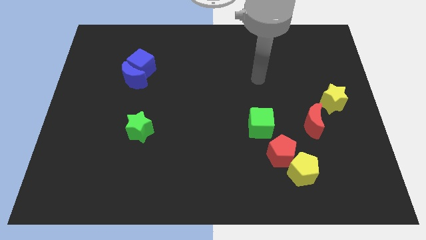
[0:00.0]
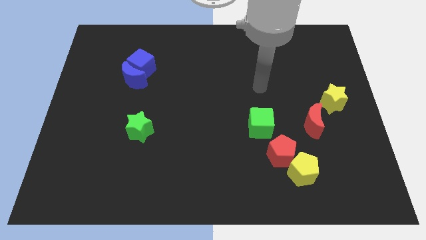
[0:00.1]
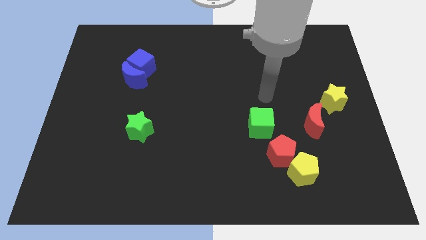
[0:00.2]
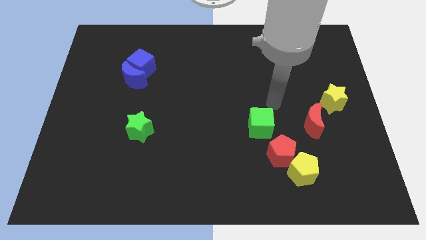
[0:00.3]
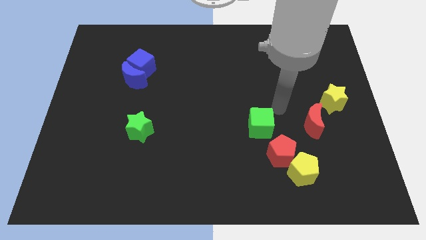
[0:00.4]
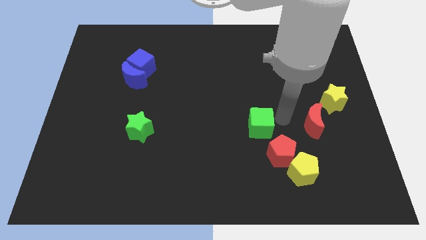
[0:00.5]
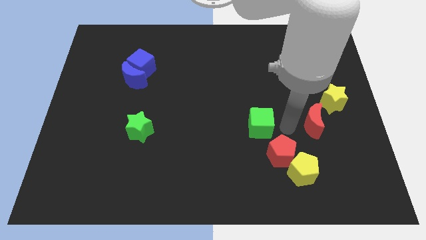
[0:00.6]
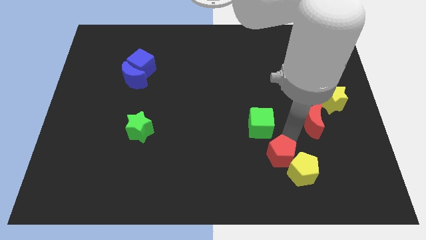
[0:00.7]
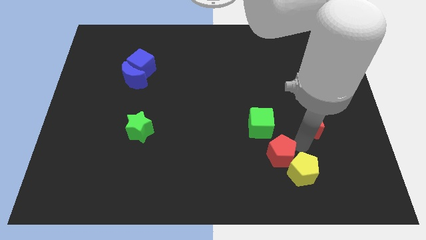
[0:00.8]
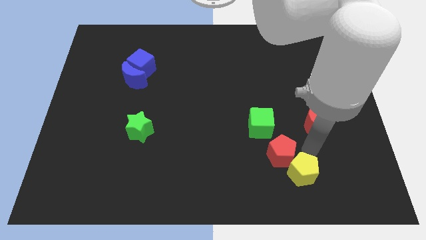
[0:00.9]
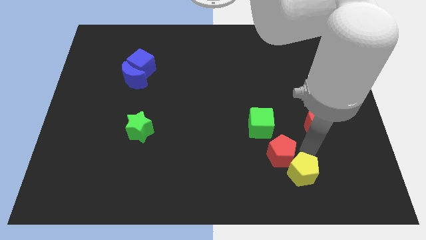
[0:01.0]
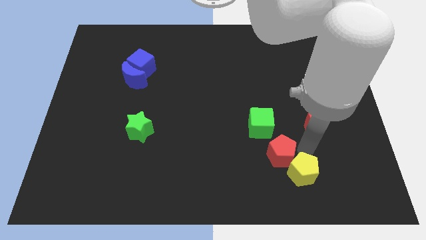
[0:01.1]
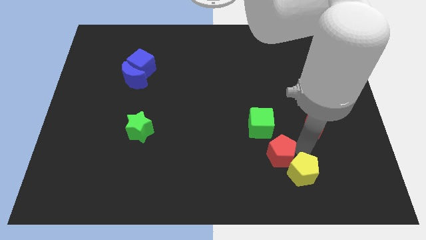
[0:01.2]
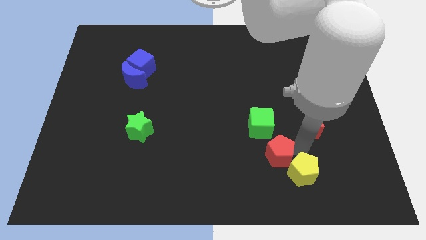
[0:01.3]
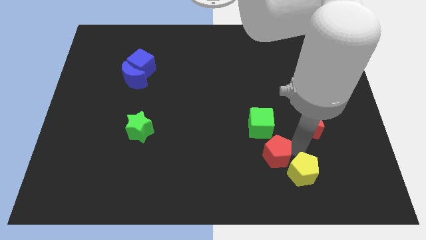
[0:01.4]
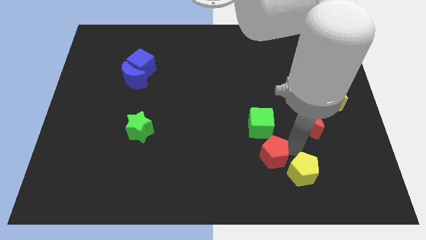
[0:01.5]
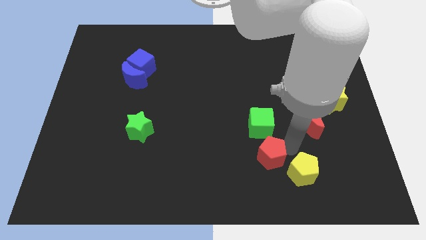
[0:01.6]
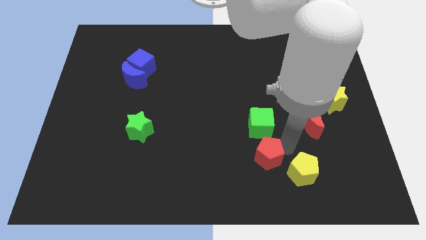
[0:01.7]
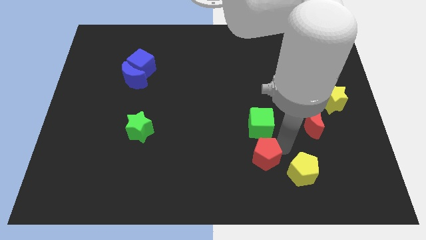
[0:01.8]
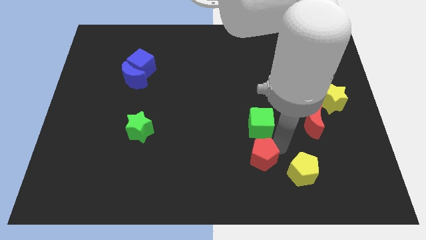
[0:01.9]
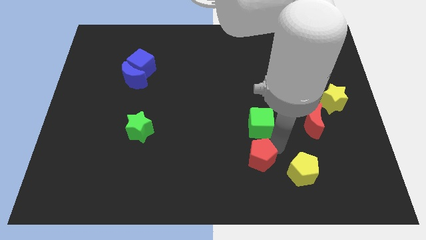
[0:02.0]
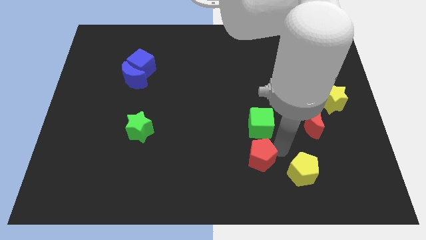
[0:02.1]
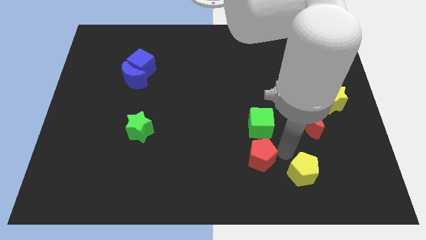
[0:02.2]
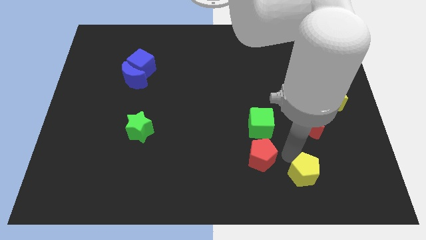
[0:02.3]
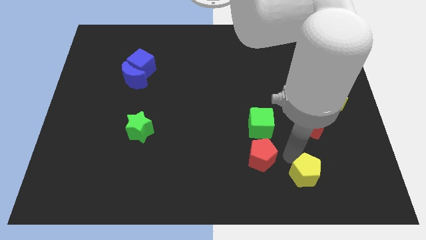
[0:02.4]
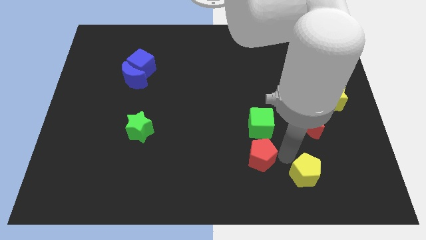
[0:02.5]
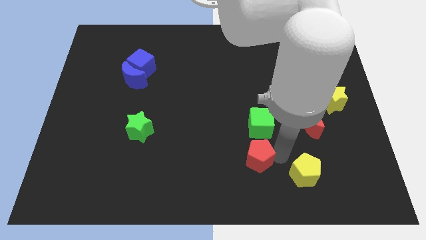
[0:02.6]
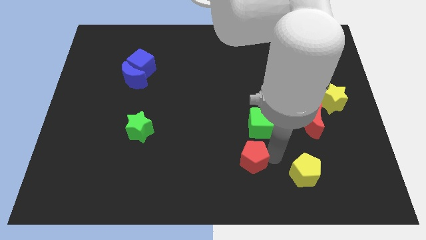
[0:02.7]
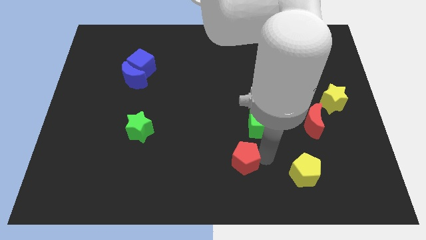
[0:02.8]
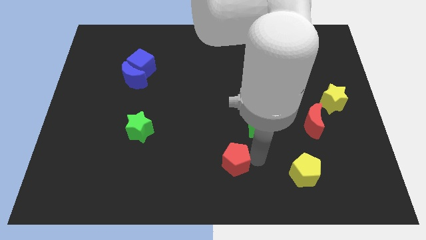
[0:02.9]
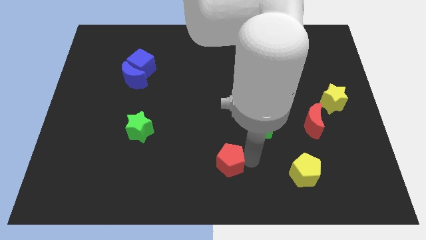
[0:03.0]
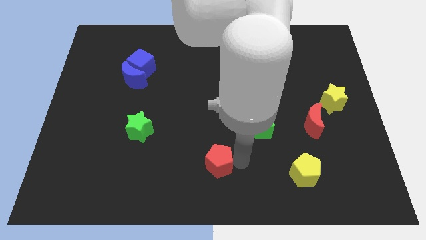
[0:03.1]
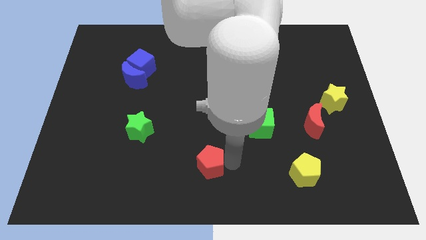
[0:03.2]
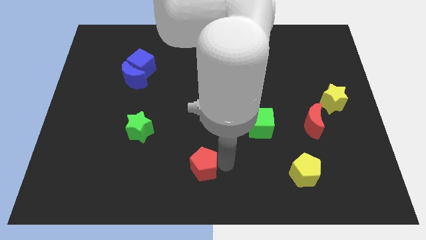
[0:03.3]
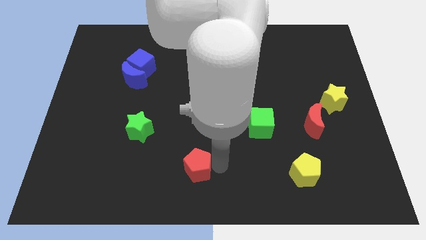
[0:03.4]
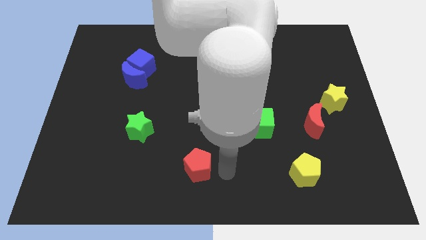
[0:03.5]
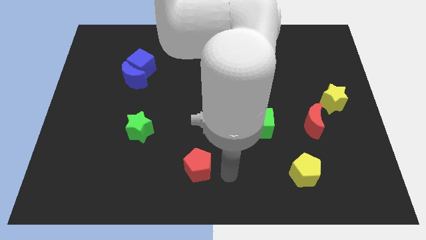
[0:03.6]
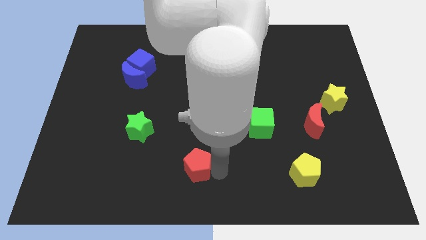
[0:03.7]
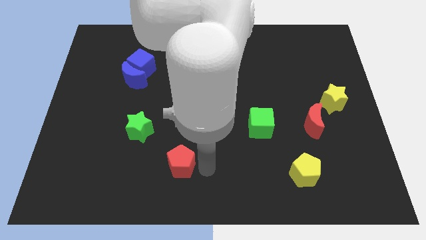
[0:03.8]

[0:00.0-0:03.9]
move the red pentagon left

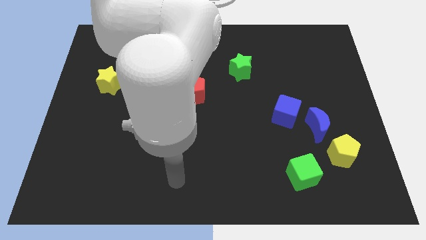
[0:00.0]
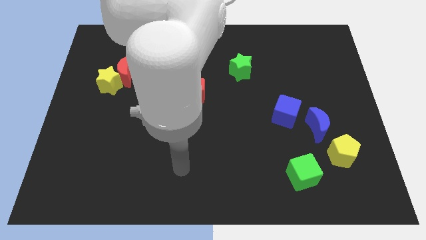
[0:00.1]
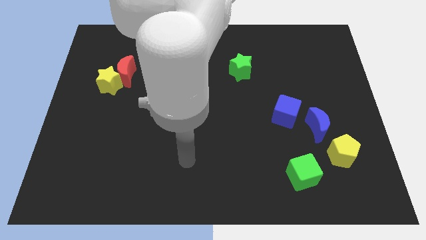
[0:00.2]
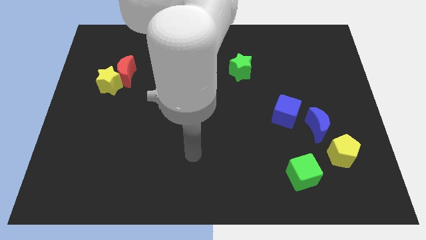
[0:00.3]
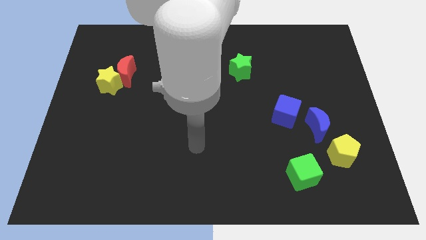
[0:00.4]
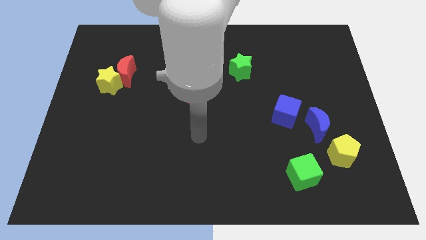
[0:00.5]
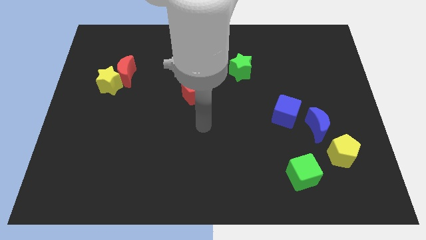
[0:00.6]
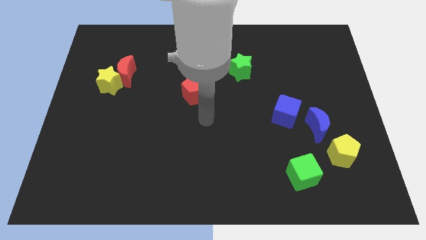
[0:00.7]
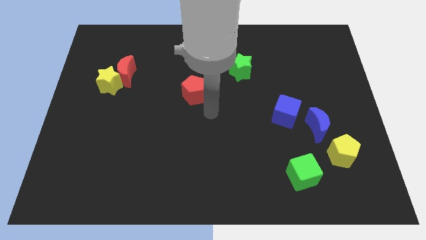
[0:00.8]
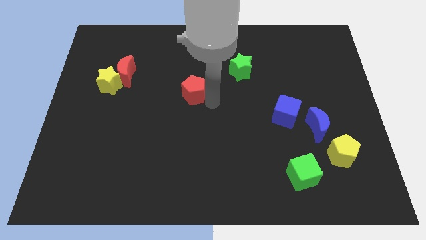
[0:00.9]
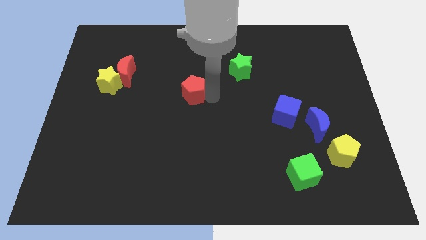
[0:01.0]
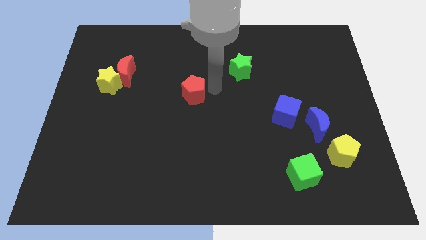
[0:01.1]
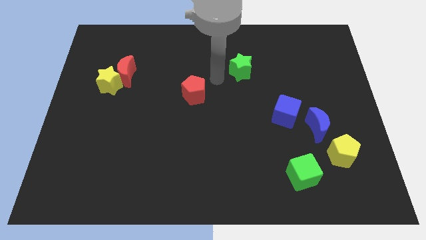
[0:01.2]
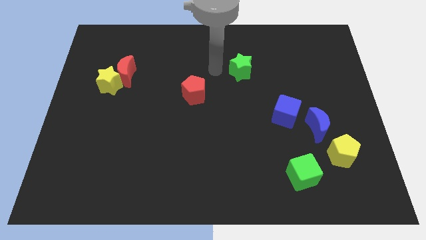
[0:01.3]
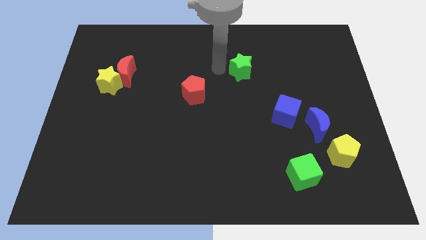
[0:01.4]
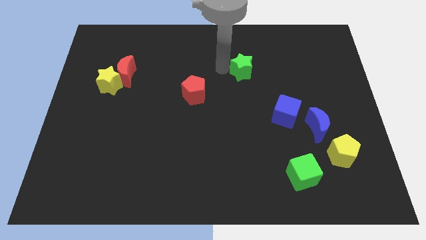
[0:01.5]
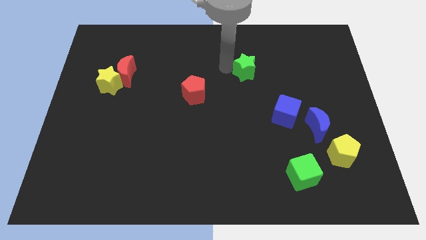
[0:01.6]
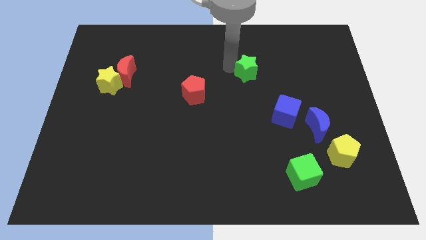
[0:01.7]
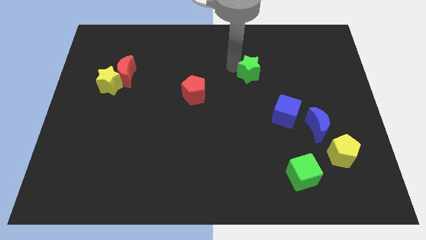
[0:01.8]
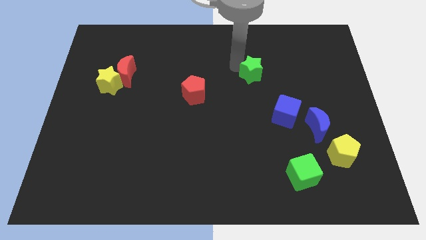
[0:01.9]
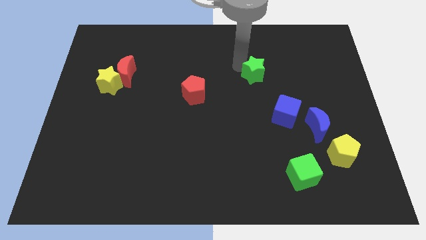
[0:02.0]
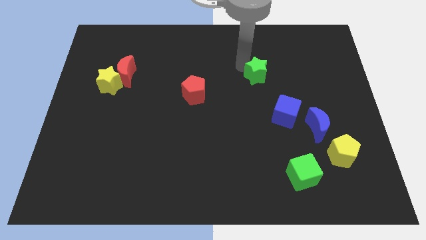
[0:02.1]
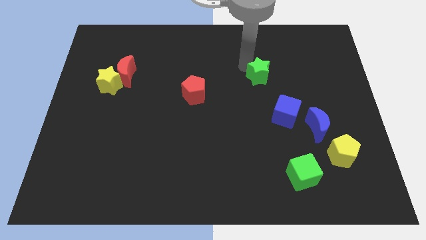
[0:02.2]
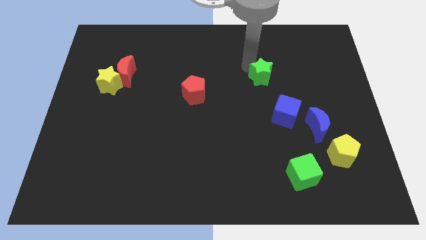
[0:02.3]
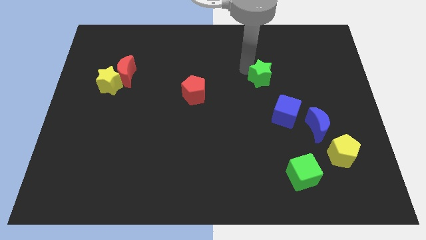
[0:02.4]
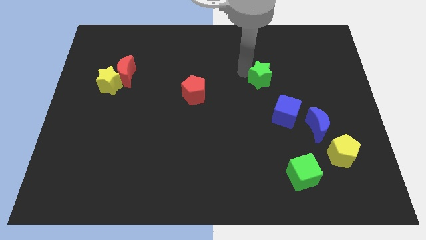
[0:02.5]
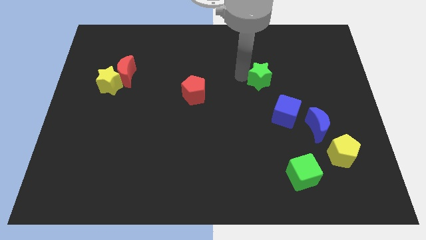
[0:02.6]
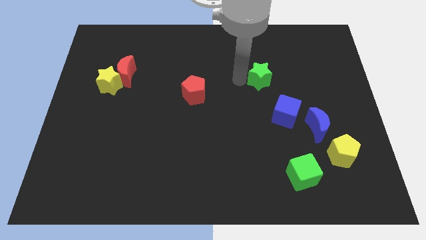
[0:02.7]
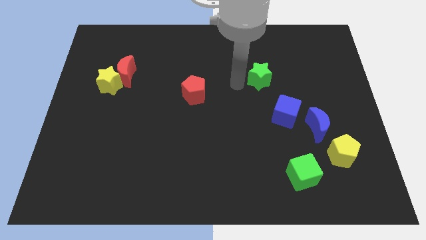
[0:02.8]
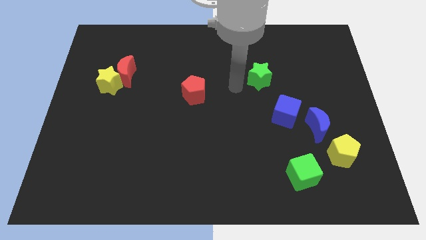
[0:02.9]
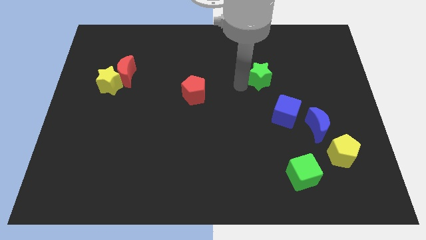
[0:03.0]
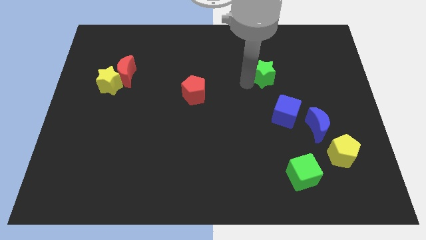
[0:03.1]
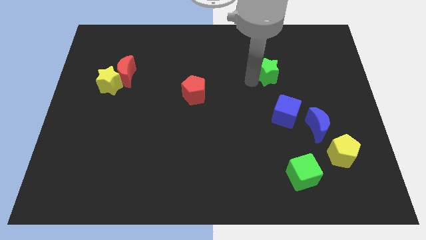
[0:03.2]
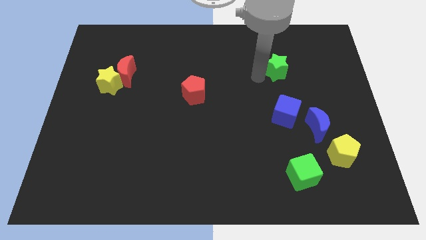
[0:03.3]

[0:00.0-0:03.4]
slide the green star right somewhat

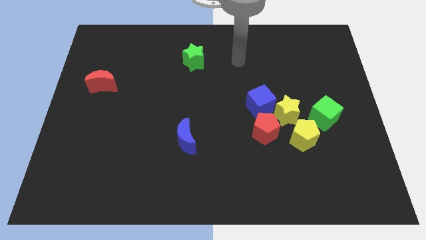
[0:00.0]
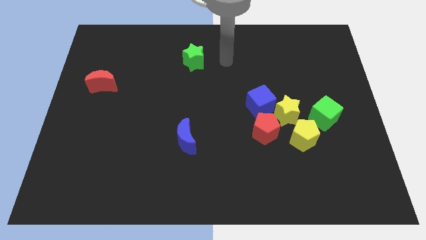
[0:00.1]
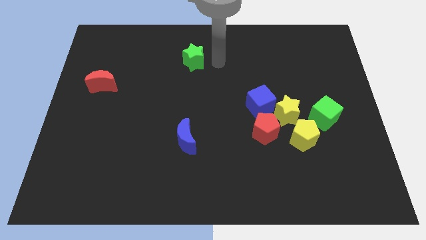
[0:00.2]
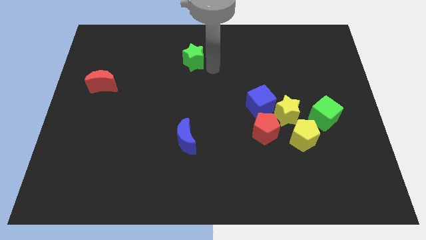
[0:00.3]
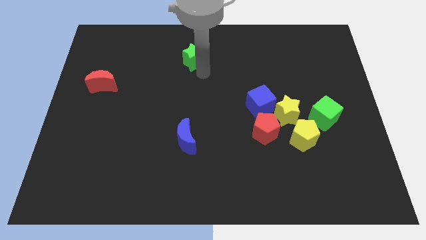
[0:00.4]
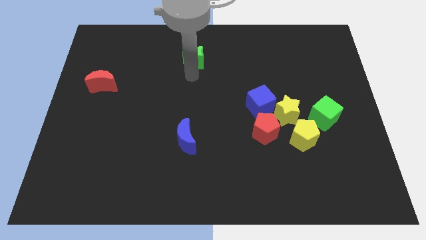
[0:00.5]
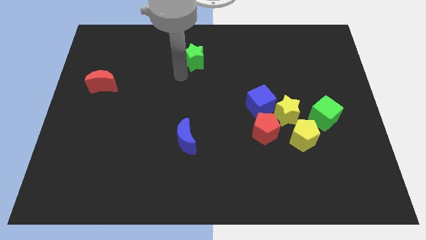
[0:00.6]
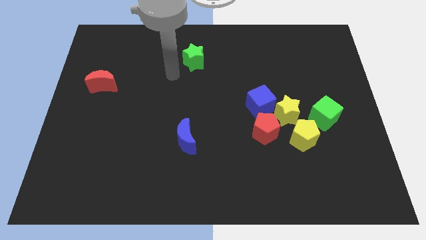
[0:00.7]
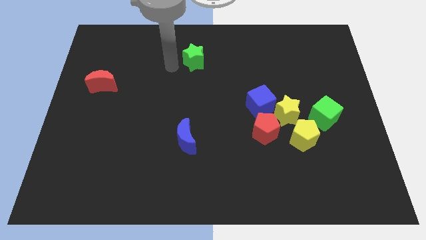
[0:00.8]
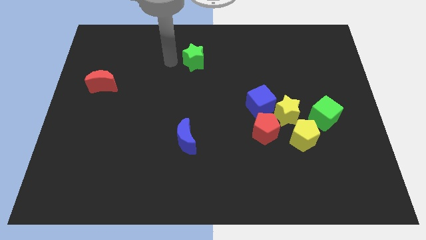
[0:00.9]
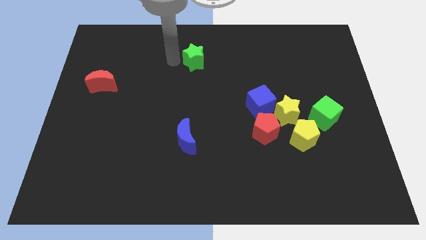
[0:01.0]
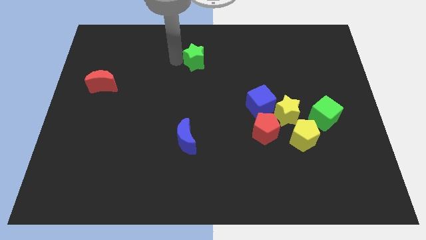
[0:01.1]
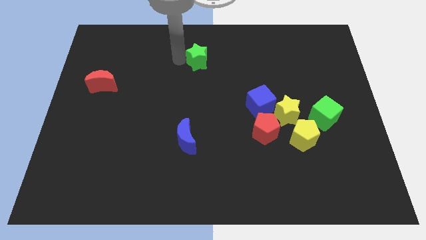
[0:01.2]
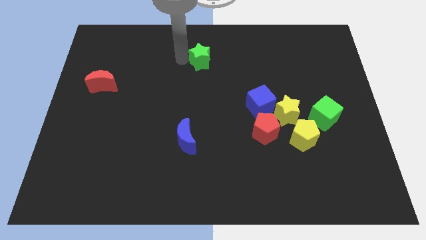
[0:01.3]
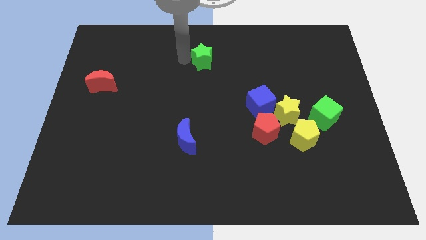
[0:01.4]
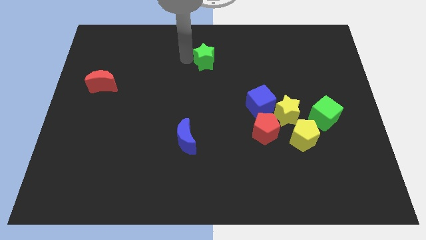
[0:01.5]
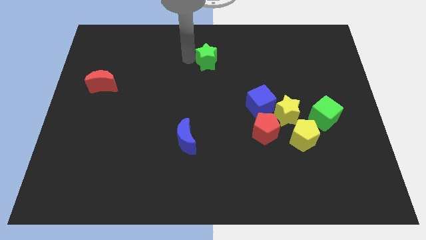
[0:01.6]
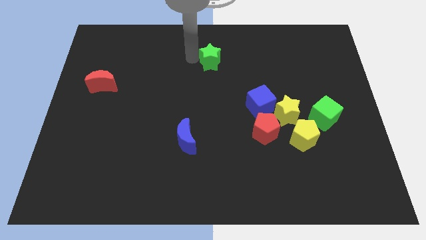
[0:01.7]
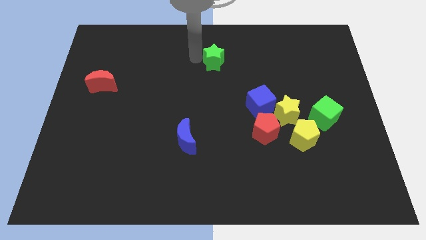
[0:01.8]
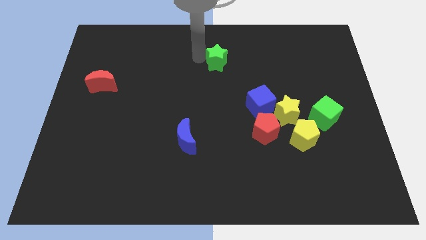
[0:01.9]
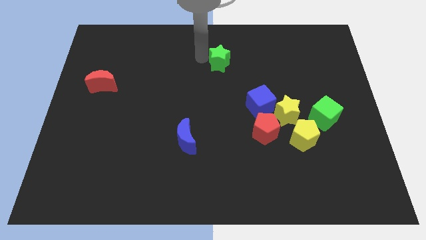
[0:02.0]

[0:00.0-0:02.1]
push the green star a little to the right
